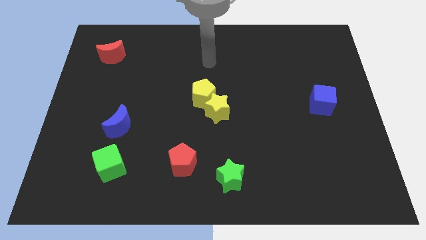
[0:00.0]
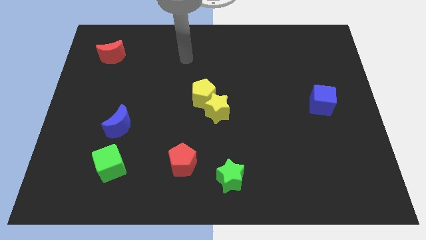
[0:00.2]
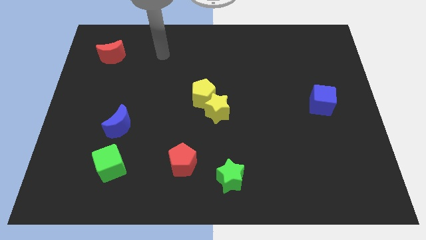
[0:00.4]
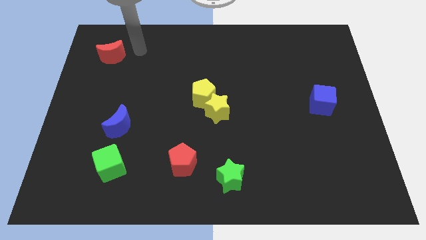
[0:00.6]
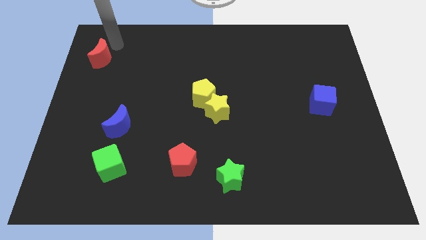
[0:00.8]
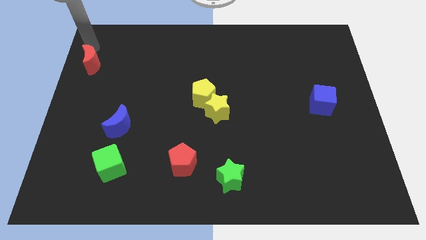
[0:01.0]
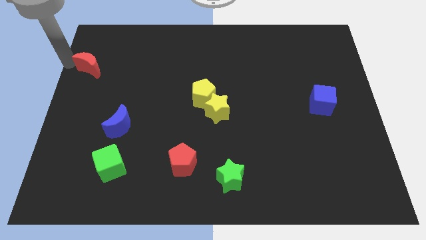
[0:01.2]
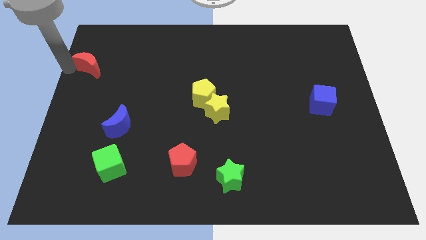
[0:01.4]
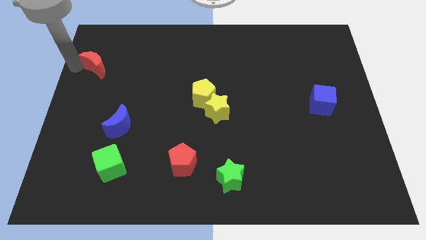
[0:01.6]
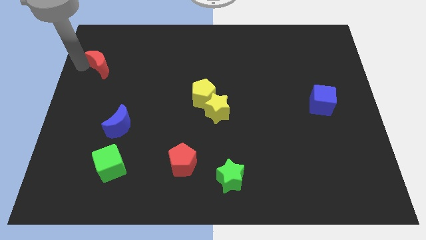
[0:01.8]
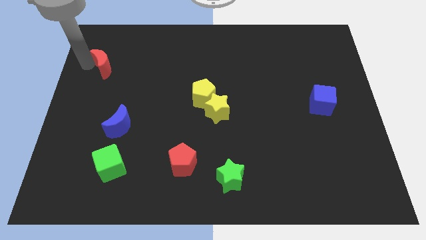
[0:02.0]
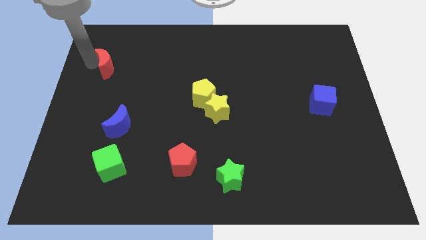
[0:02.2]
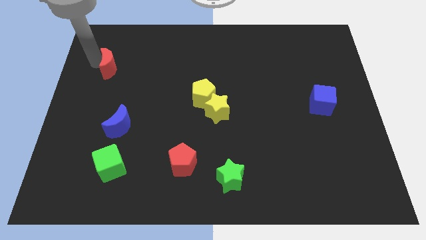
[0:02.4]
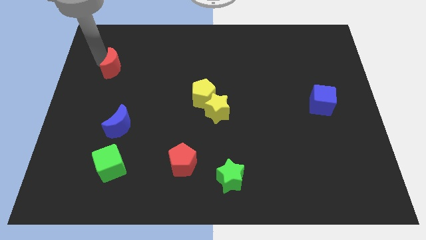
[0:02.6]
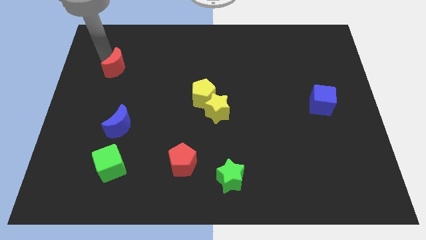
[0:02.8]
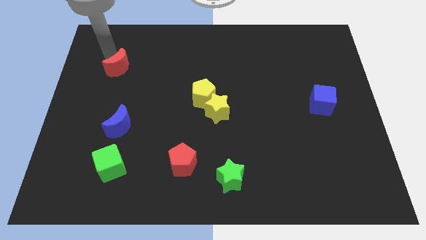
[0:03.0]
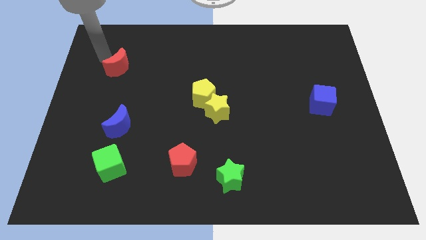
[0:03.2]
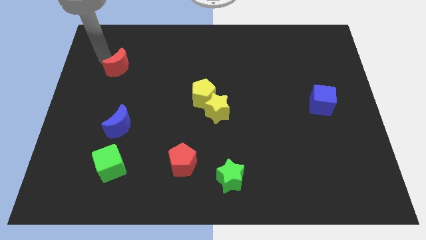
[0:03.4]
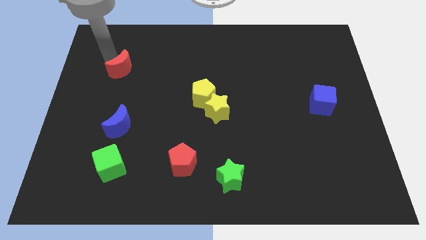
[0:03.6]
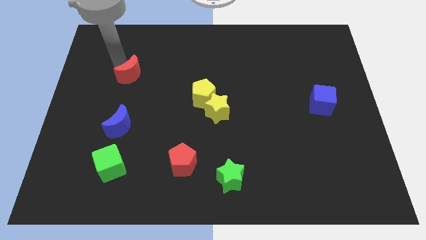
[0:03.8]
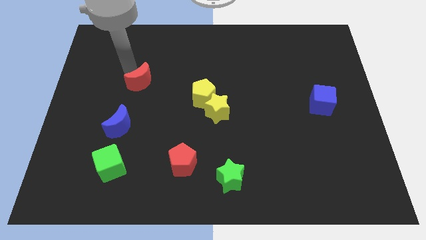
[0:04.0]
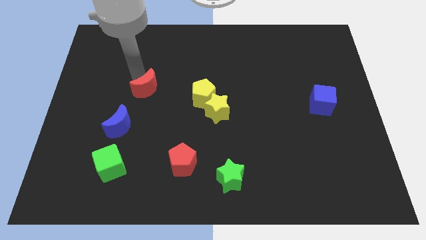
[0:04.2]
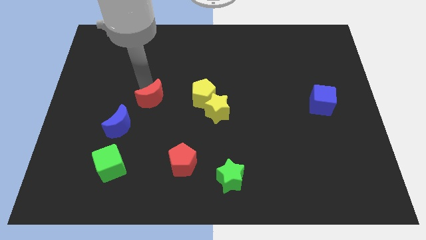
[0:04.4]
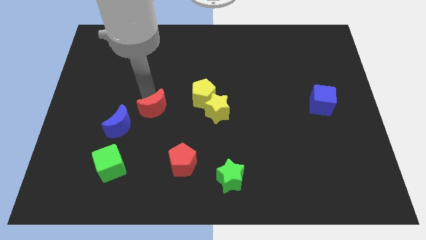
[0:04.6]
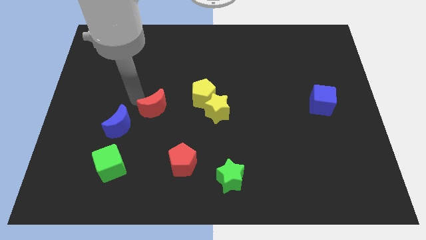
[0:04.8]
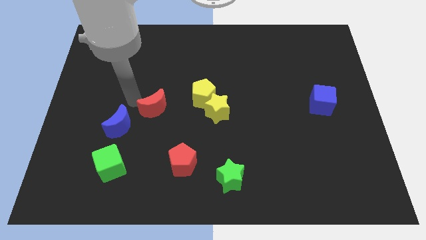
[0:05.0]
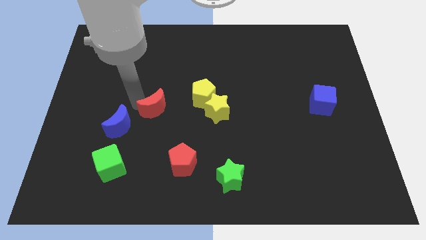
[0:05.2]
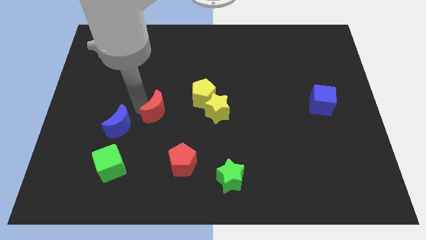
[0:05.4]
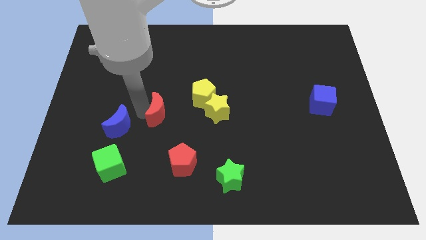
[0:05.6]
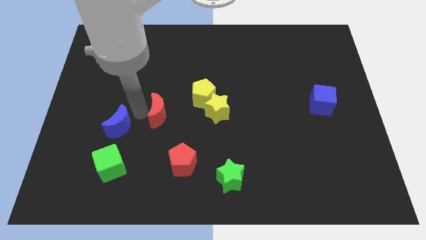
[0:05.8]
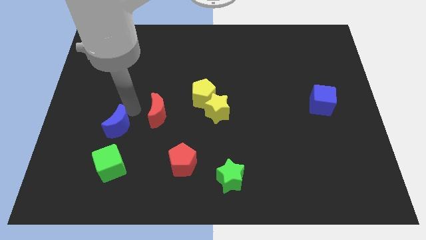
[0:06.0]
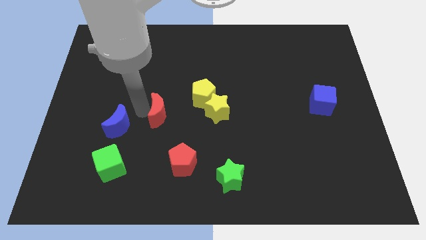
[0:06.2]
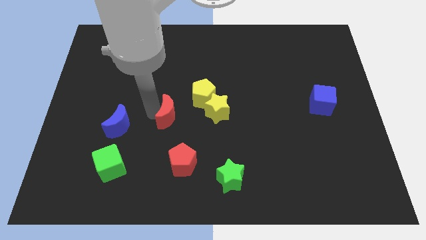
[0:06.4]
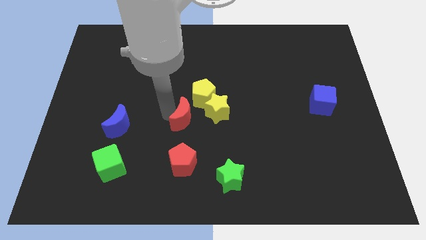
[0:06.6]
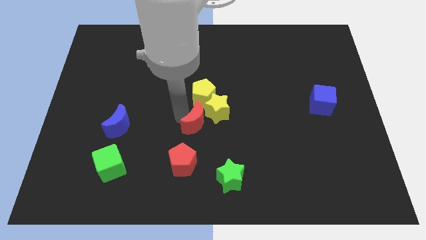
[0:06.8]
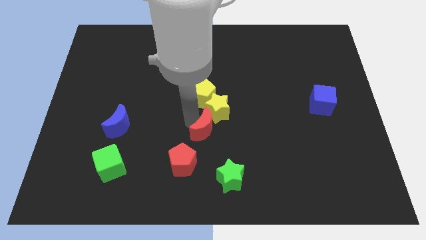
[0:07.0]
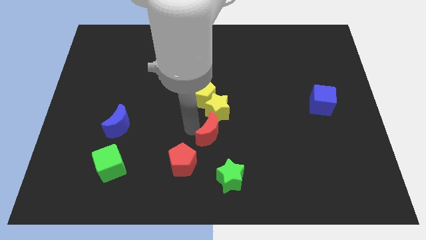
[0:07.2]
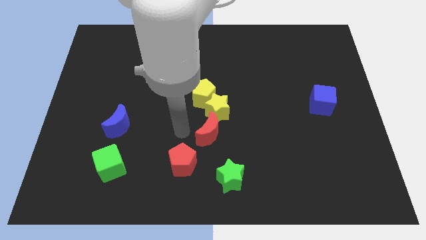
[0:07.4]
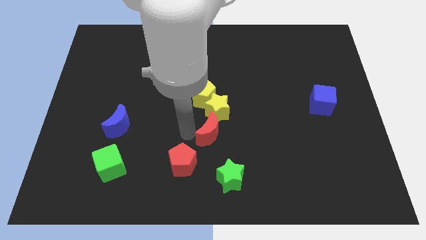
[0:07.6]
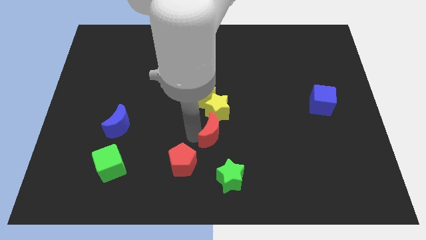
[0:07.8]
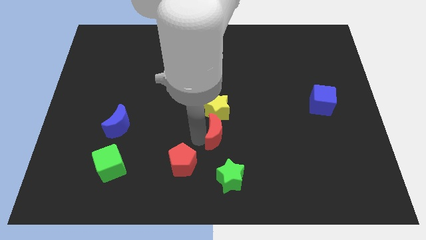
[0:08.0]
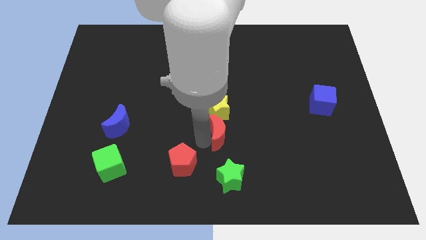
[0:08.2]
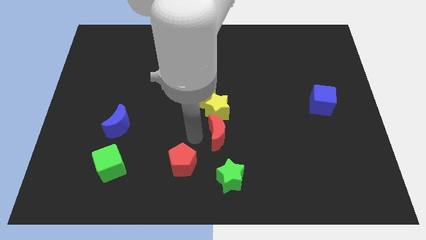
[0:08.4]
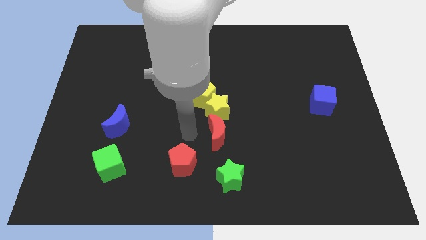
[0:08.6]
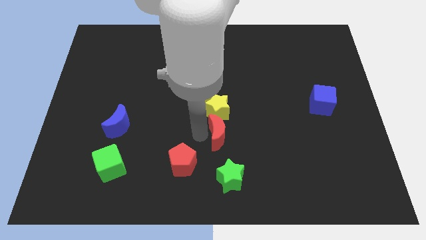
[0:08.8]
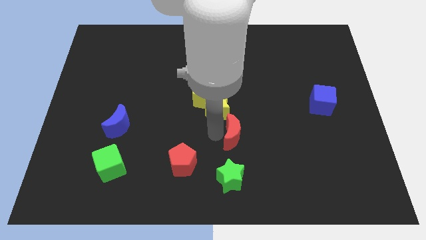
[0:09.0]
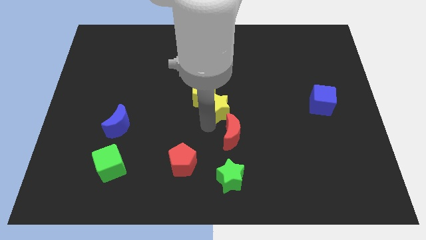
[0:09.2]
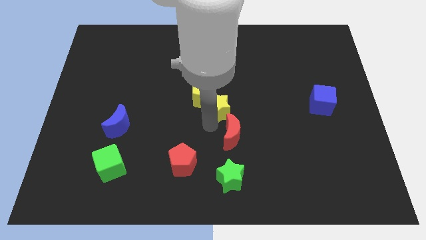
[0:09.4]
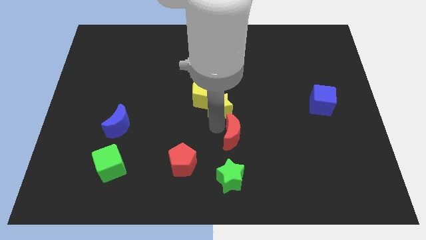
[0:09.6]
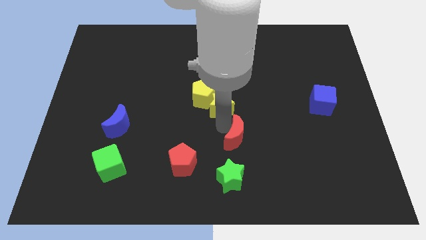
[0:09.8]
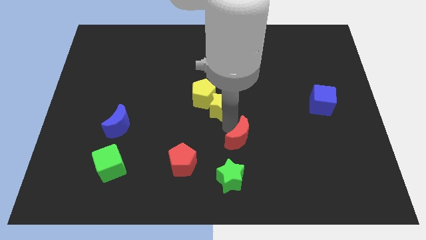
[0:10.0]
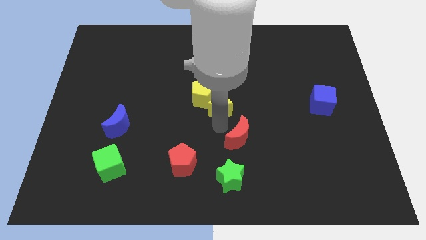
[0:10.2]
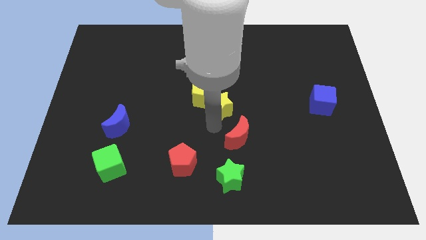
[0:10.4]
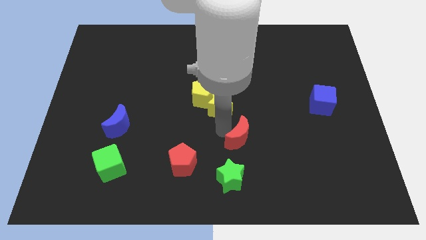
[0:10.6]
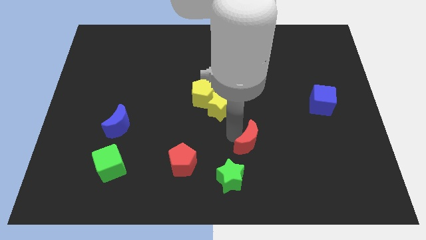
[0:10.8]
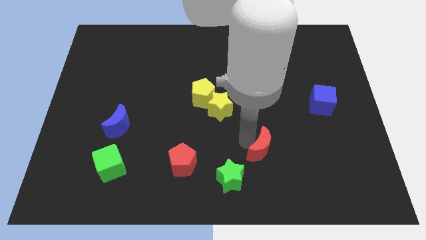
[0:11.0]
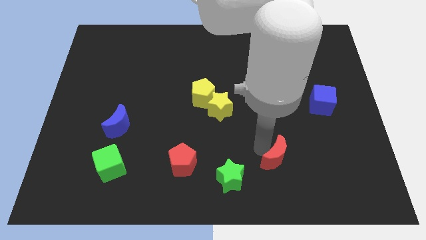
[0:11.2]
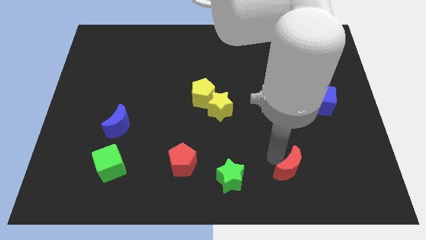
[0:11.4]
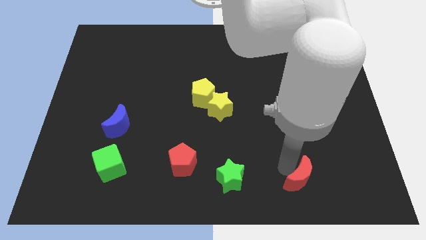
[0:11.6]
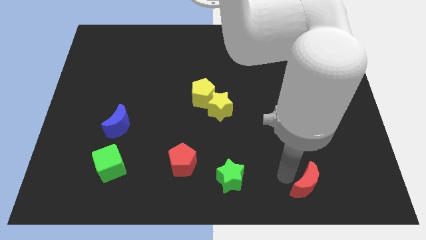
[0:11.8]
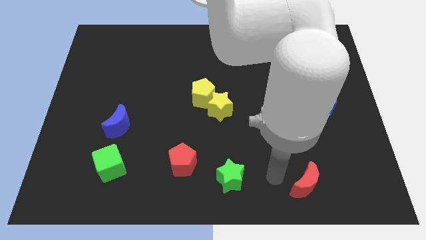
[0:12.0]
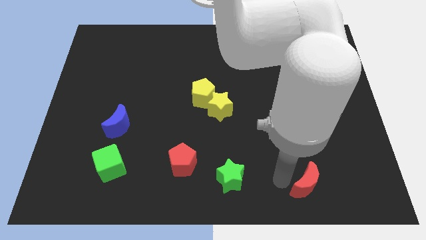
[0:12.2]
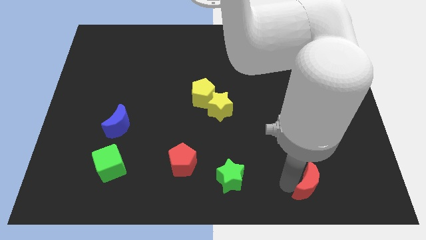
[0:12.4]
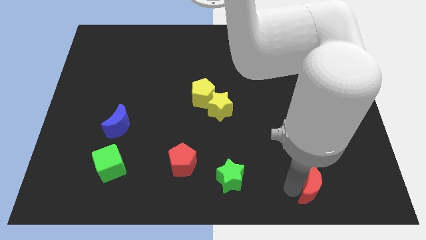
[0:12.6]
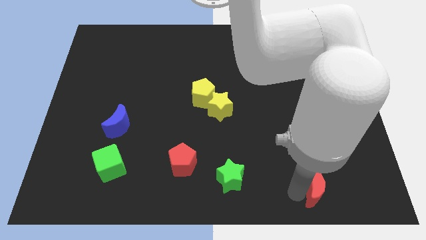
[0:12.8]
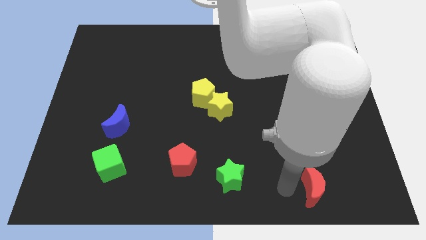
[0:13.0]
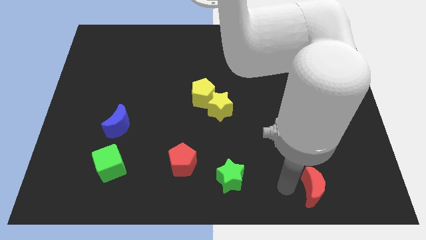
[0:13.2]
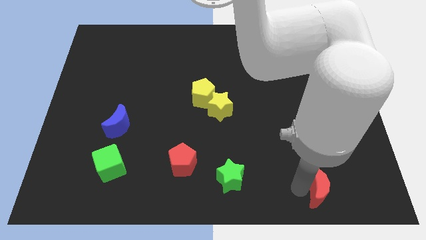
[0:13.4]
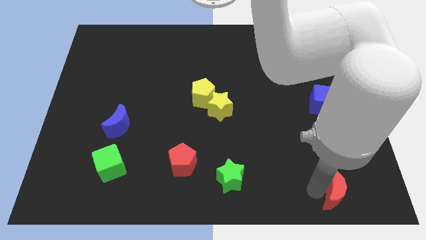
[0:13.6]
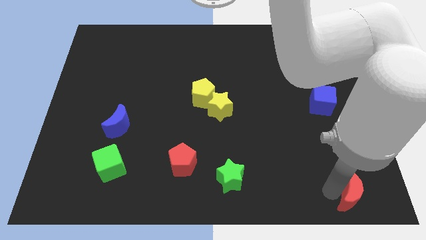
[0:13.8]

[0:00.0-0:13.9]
push the red moon to the bottom right of the board

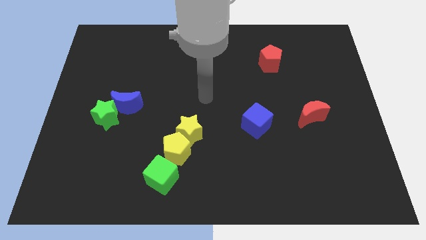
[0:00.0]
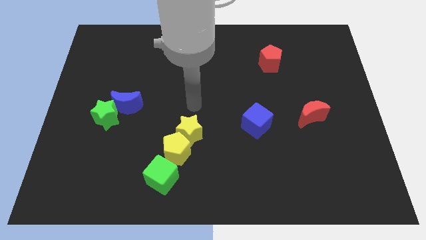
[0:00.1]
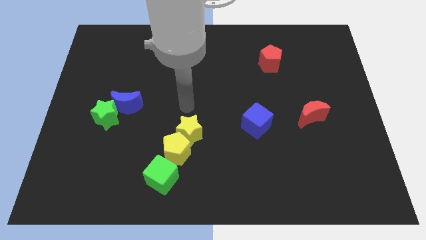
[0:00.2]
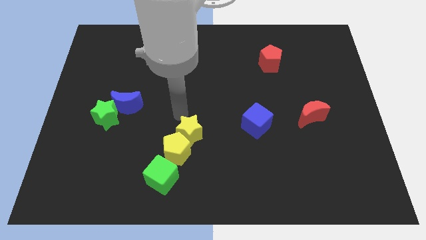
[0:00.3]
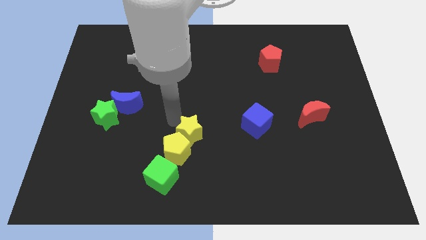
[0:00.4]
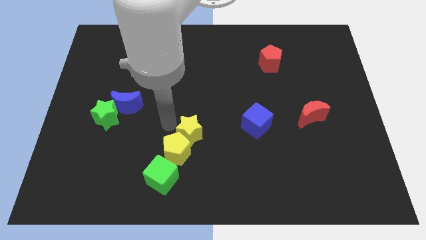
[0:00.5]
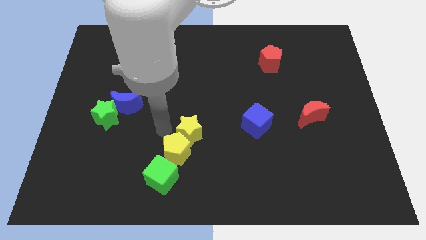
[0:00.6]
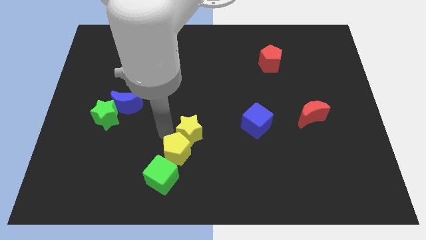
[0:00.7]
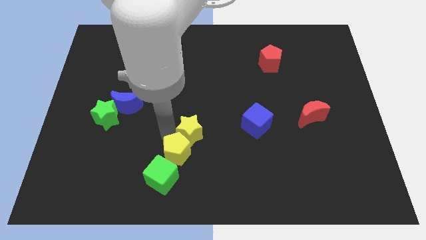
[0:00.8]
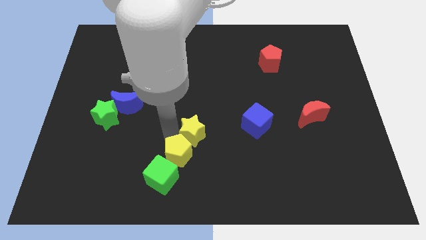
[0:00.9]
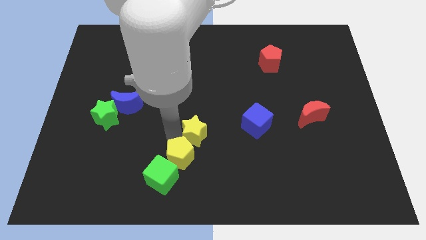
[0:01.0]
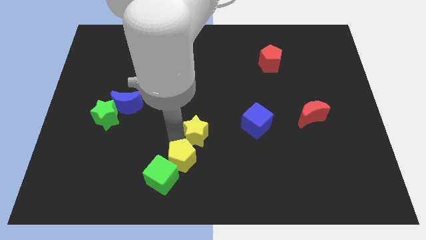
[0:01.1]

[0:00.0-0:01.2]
put the yellow pentagon to the bottom side
